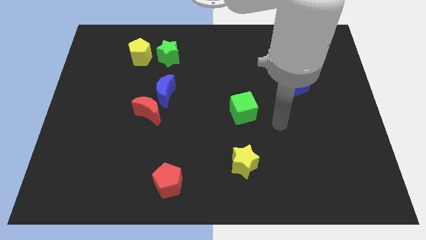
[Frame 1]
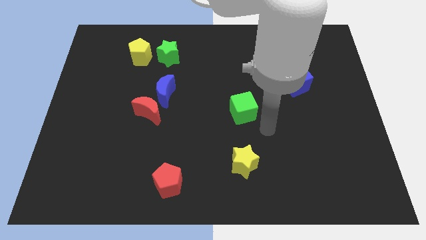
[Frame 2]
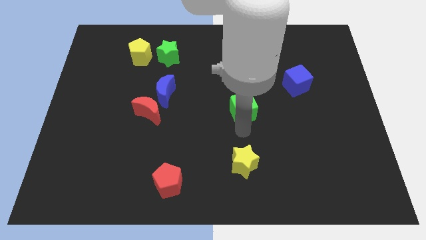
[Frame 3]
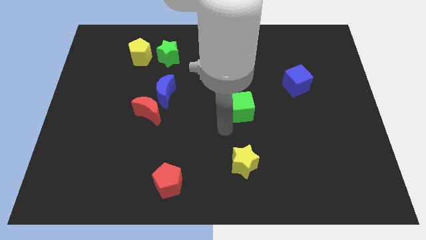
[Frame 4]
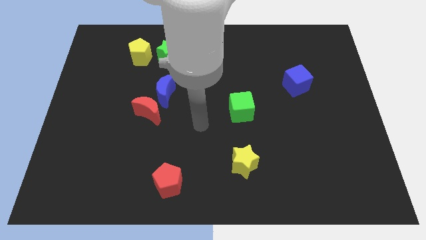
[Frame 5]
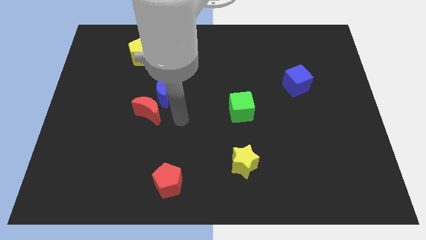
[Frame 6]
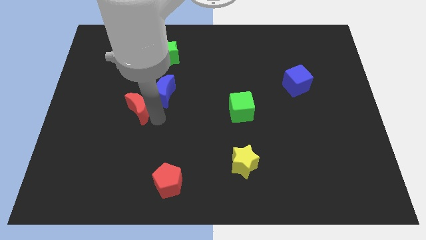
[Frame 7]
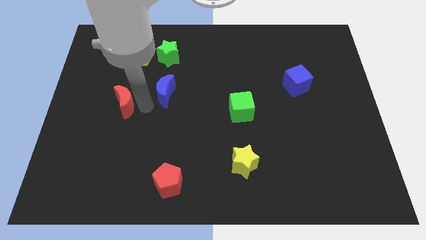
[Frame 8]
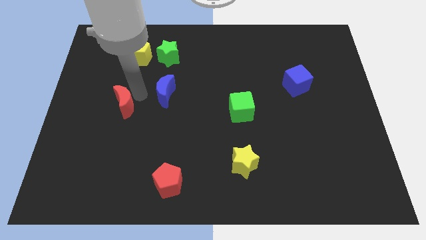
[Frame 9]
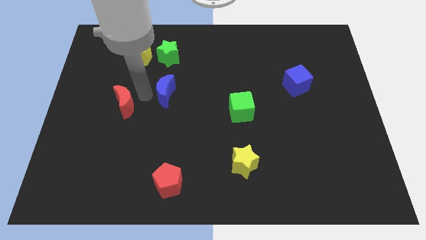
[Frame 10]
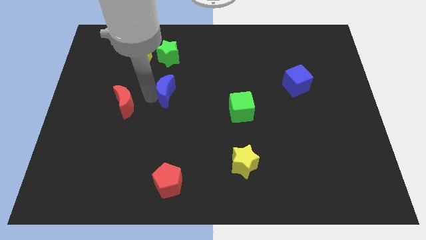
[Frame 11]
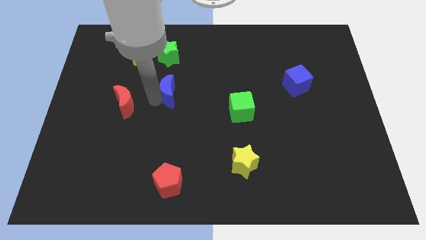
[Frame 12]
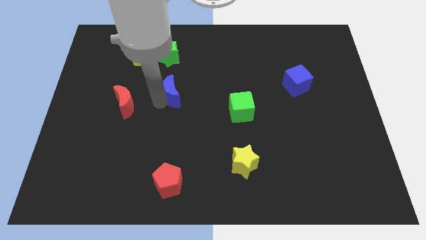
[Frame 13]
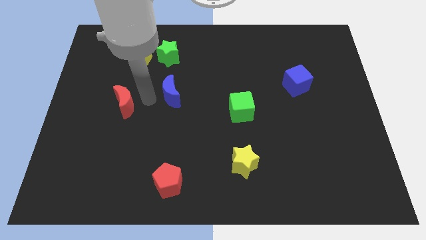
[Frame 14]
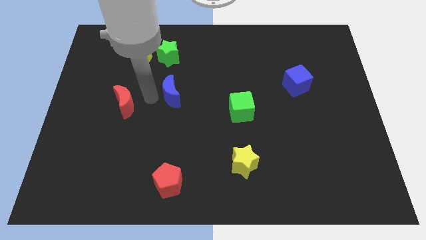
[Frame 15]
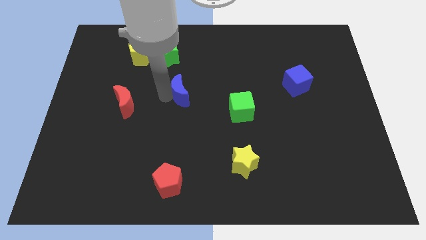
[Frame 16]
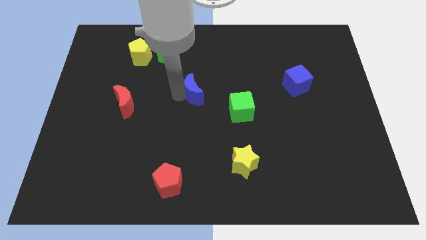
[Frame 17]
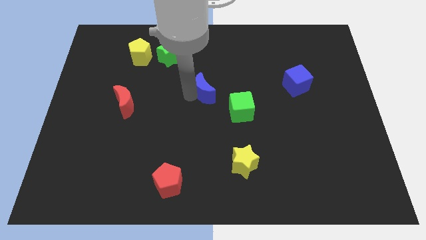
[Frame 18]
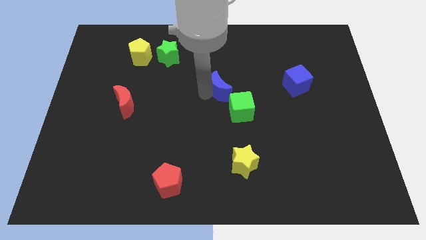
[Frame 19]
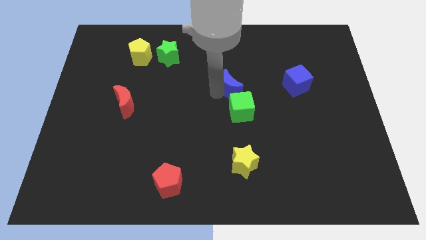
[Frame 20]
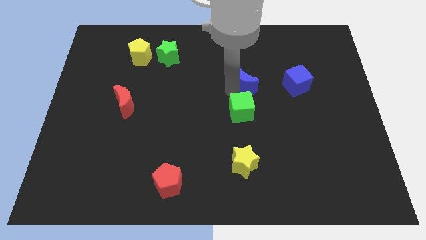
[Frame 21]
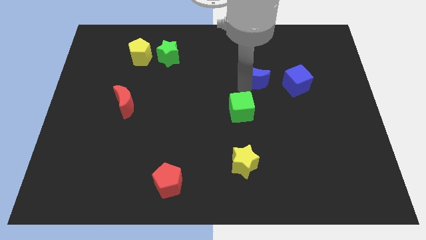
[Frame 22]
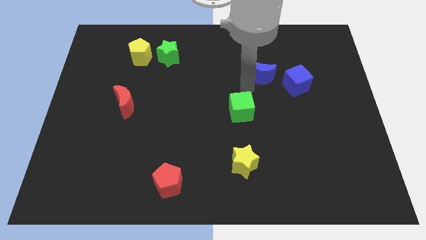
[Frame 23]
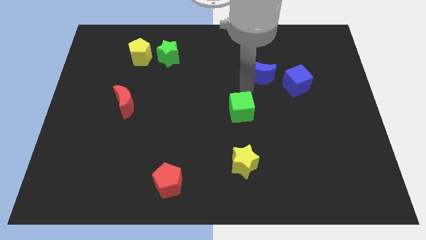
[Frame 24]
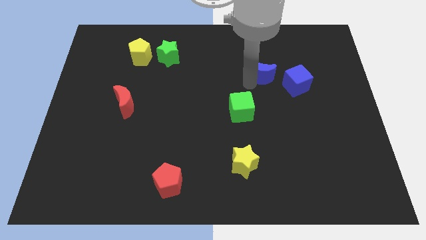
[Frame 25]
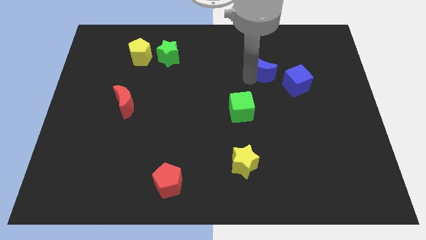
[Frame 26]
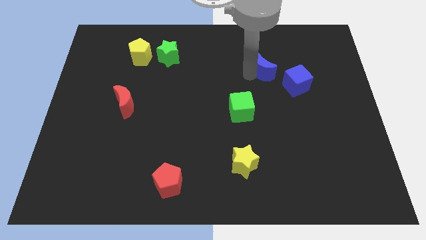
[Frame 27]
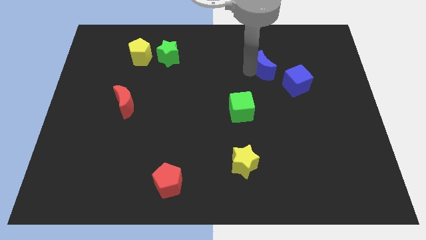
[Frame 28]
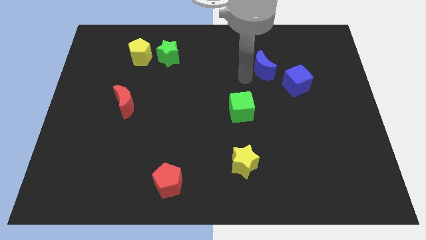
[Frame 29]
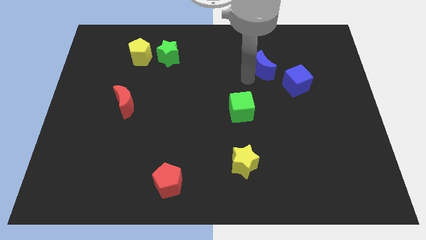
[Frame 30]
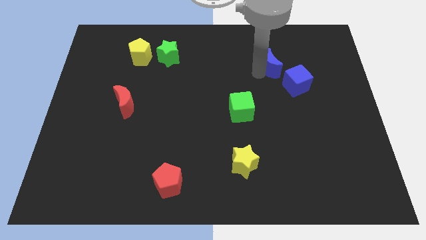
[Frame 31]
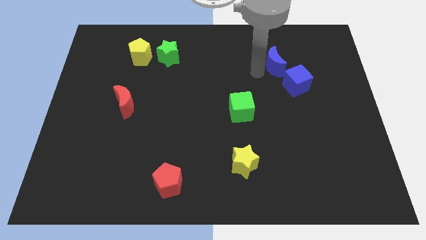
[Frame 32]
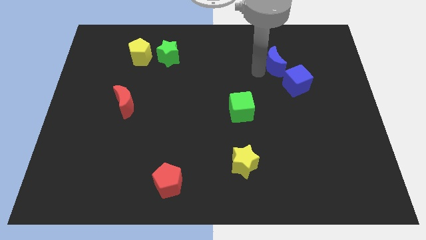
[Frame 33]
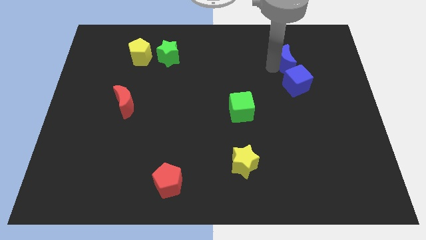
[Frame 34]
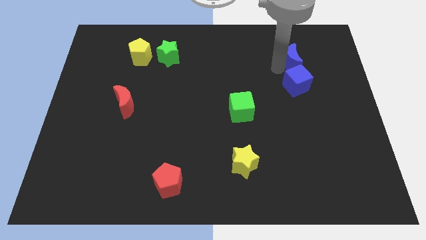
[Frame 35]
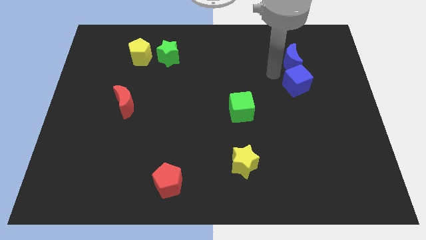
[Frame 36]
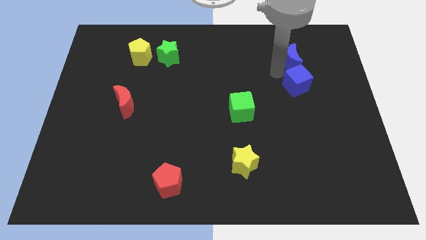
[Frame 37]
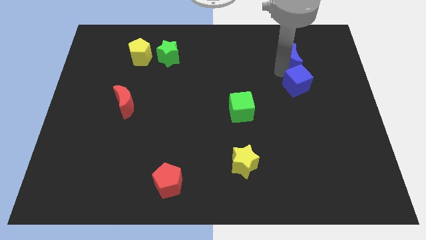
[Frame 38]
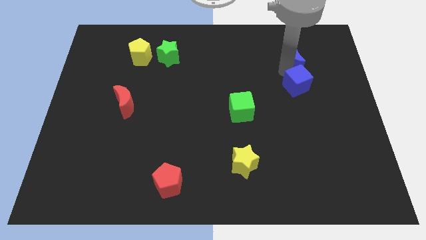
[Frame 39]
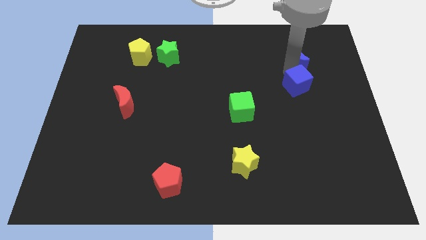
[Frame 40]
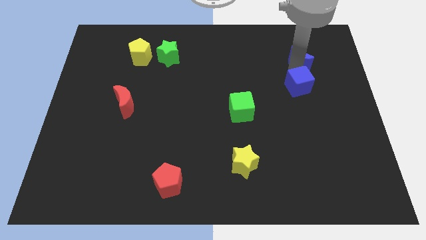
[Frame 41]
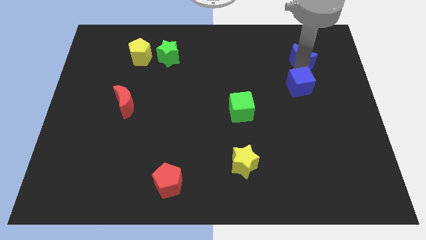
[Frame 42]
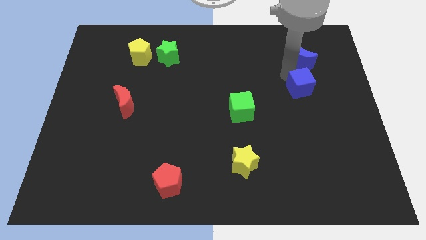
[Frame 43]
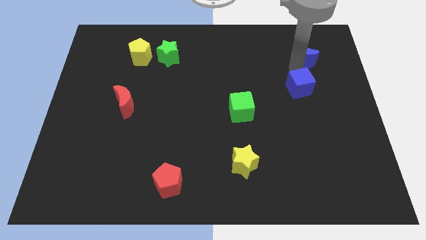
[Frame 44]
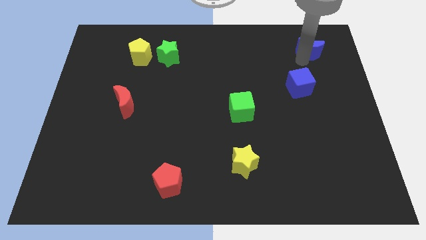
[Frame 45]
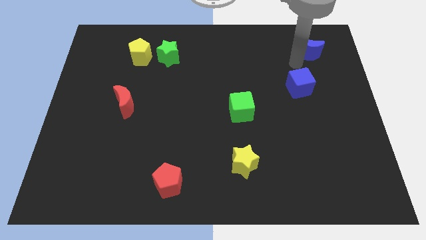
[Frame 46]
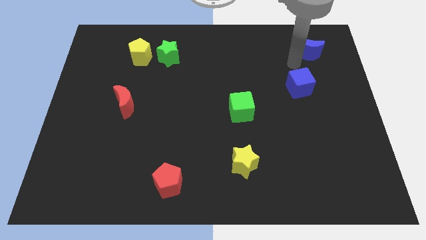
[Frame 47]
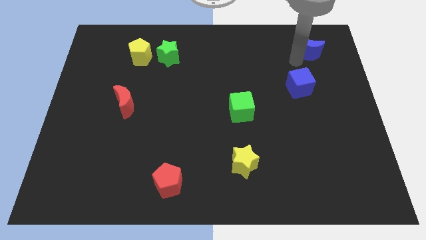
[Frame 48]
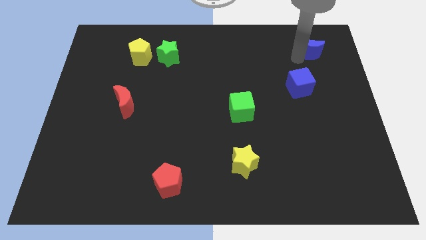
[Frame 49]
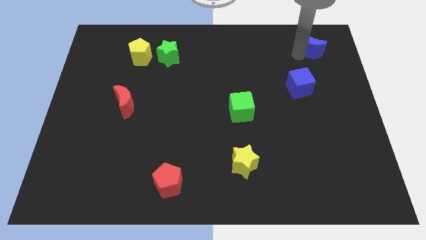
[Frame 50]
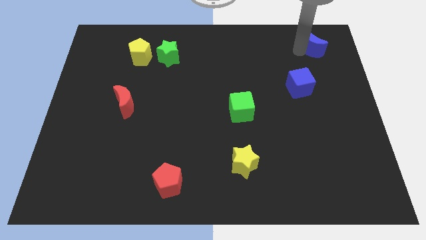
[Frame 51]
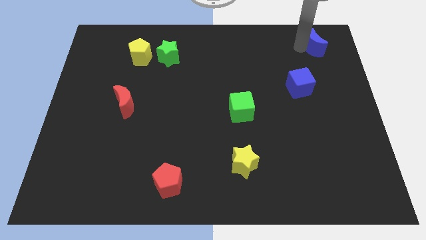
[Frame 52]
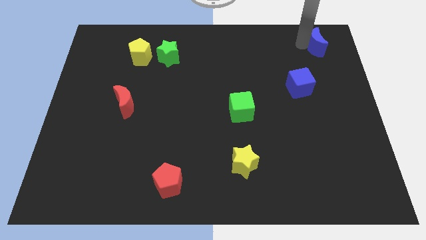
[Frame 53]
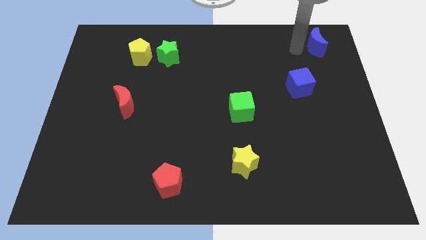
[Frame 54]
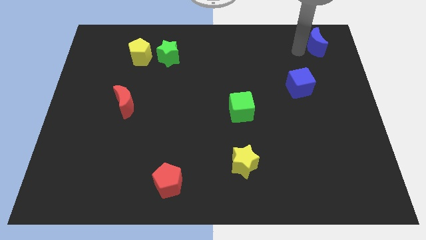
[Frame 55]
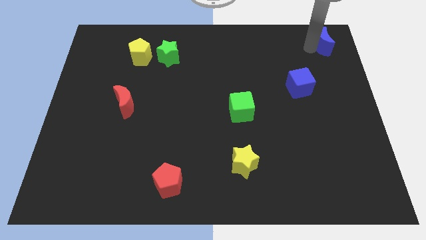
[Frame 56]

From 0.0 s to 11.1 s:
put the blue moon to the top right corner

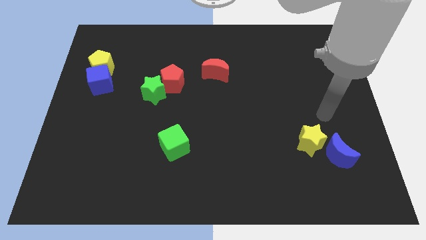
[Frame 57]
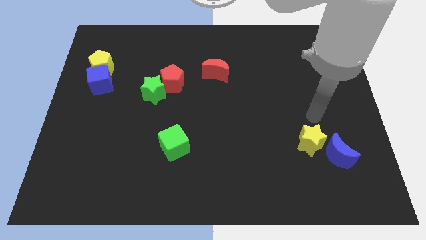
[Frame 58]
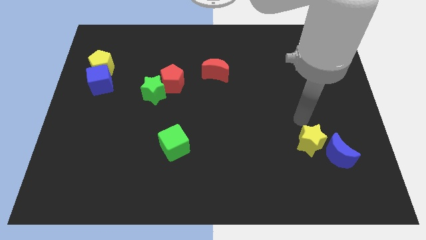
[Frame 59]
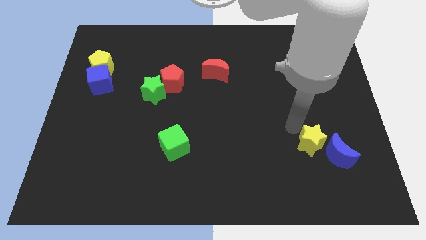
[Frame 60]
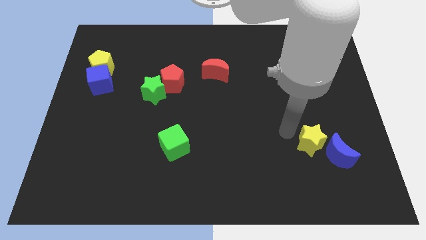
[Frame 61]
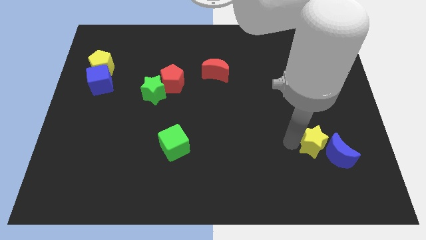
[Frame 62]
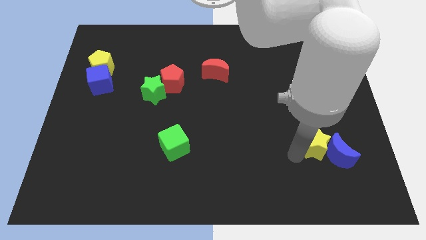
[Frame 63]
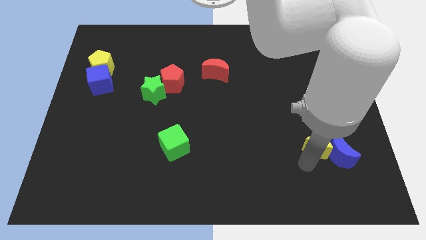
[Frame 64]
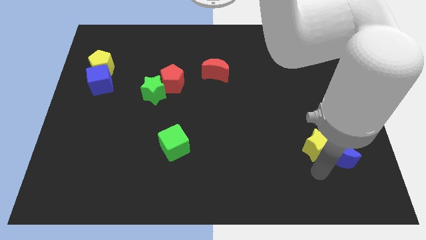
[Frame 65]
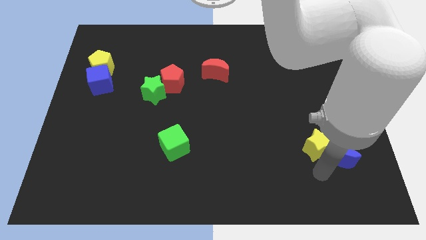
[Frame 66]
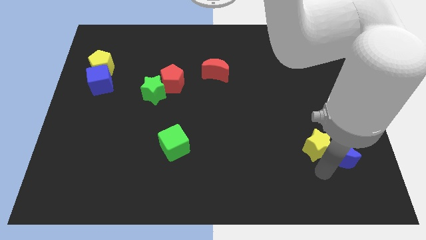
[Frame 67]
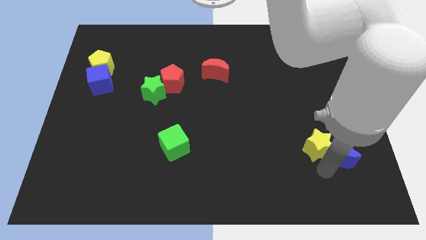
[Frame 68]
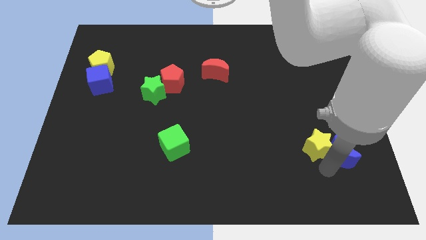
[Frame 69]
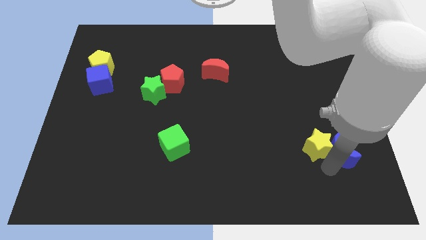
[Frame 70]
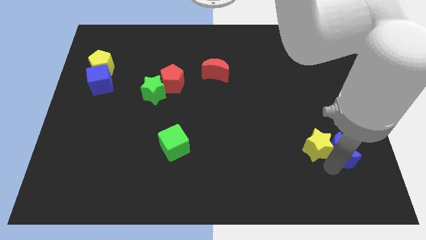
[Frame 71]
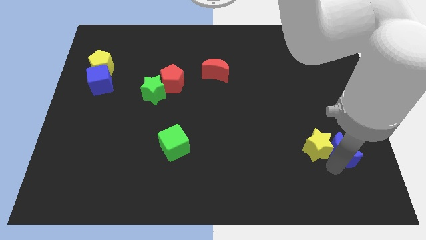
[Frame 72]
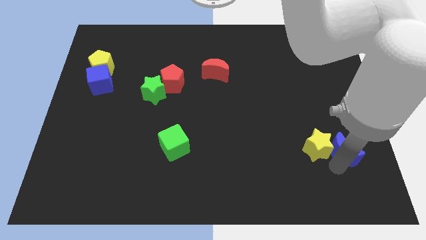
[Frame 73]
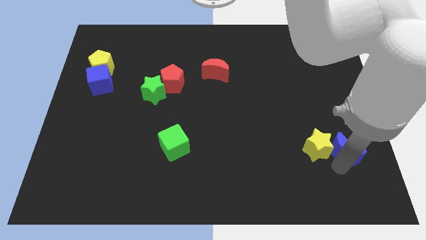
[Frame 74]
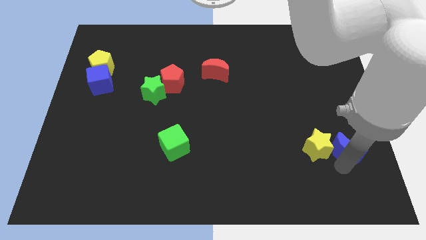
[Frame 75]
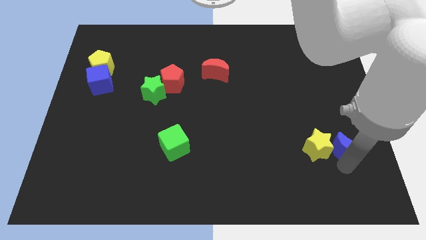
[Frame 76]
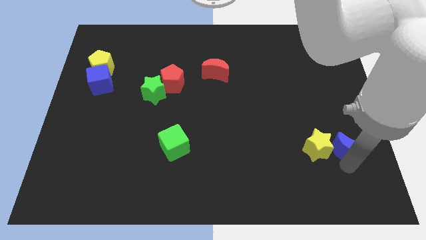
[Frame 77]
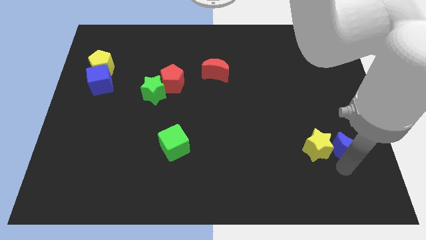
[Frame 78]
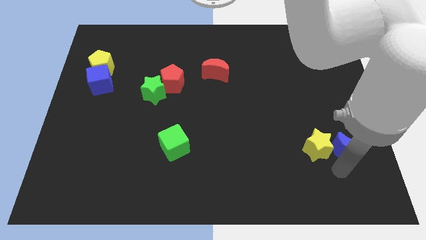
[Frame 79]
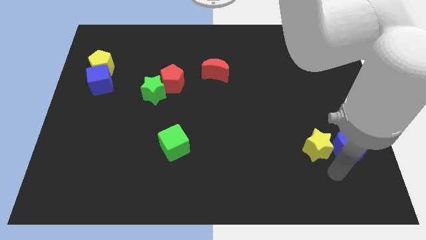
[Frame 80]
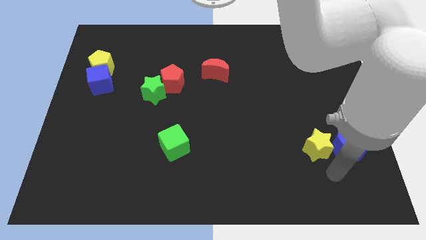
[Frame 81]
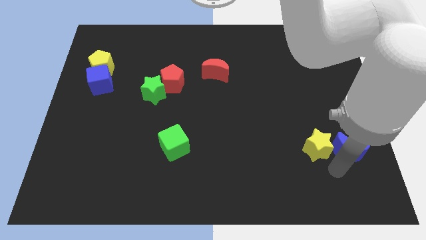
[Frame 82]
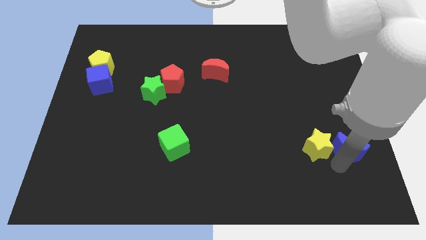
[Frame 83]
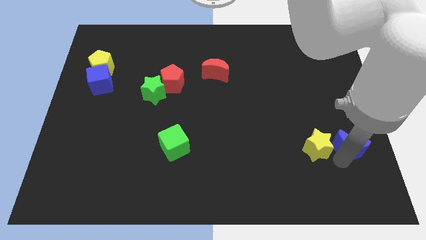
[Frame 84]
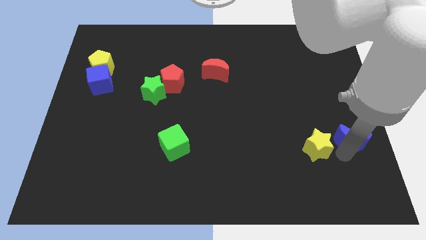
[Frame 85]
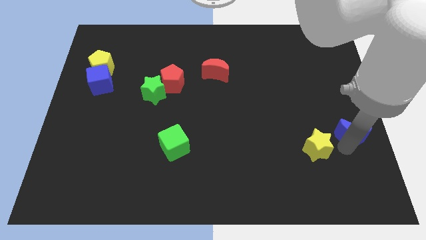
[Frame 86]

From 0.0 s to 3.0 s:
push the blue moon to the right side
